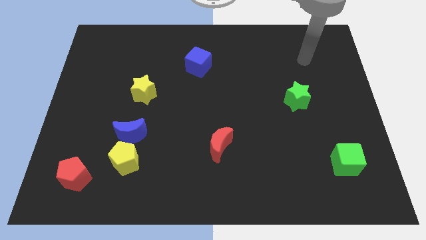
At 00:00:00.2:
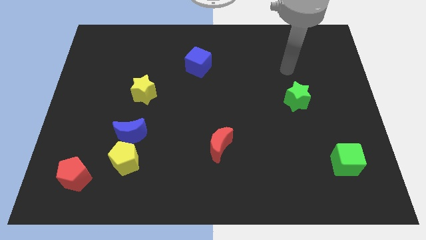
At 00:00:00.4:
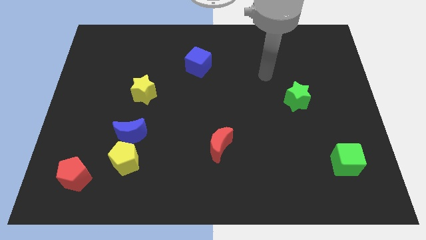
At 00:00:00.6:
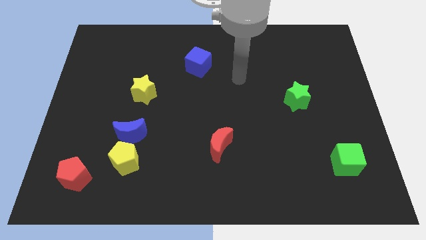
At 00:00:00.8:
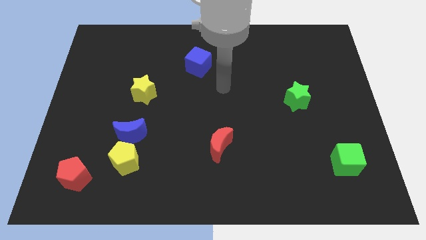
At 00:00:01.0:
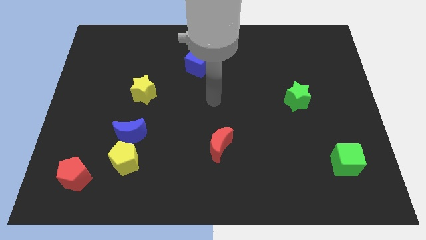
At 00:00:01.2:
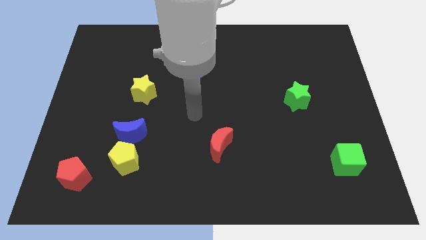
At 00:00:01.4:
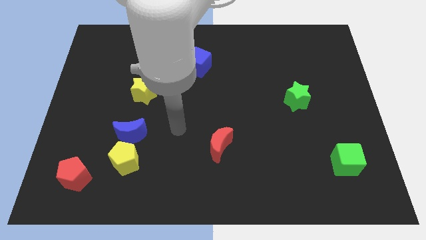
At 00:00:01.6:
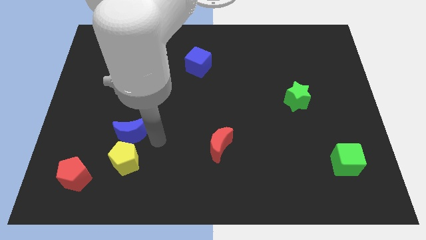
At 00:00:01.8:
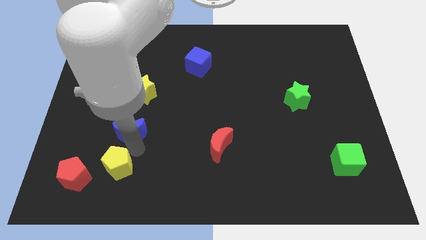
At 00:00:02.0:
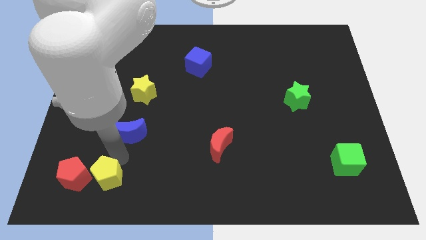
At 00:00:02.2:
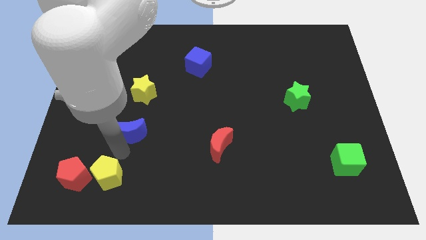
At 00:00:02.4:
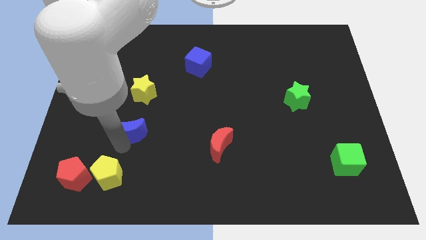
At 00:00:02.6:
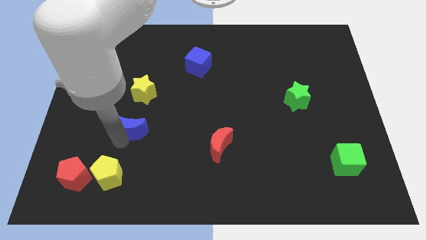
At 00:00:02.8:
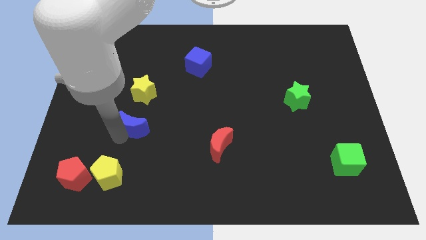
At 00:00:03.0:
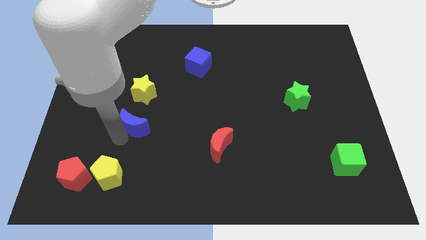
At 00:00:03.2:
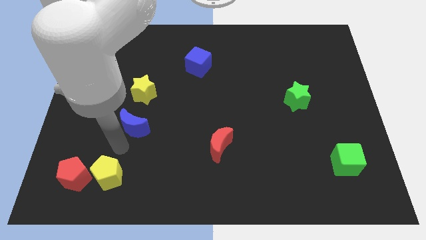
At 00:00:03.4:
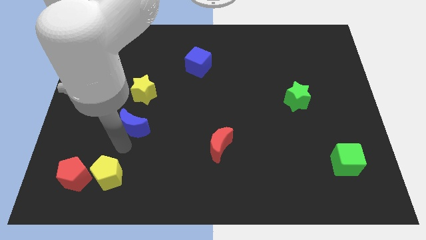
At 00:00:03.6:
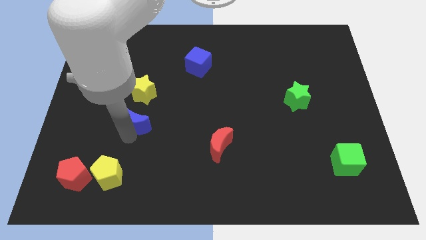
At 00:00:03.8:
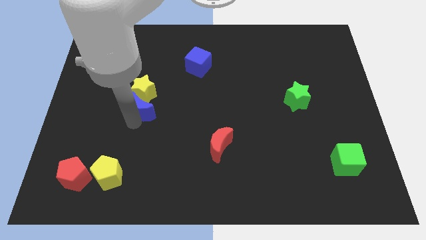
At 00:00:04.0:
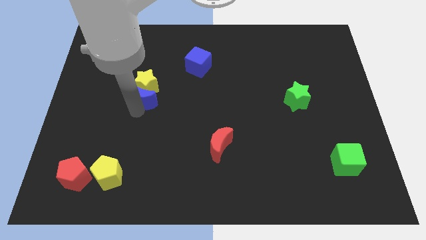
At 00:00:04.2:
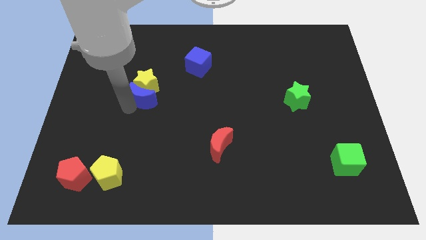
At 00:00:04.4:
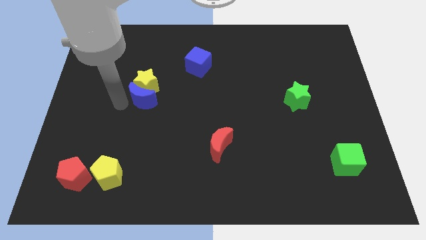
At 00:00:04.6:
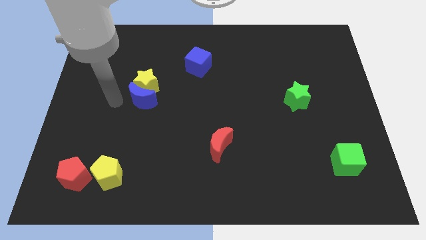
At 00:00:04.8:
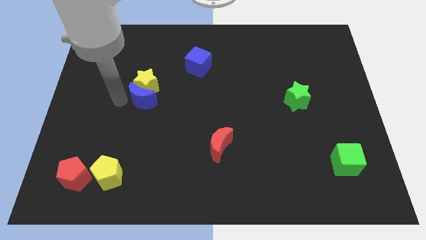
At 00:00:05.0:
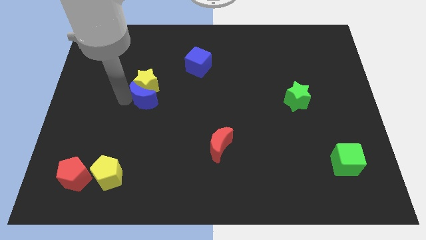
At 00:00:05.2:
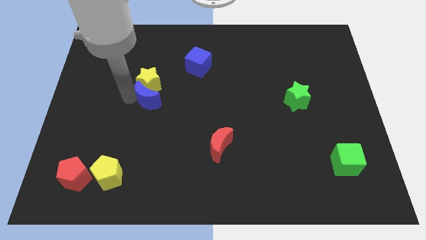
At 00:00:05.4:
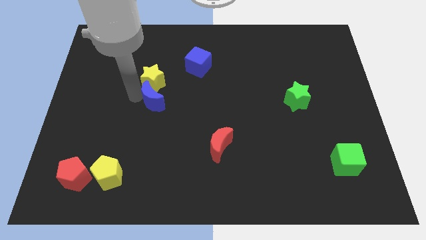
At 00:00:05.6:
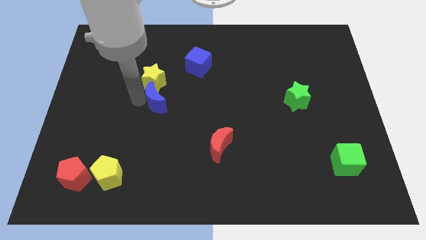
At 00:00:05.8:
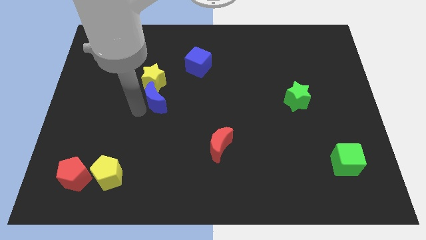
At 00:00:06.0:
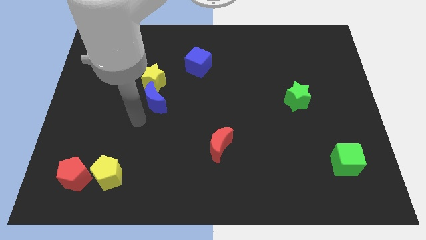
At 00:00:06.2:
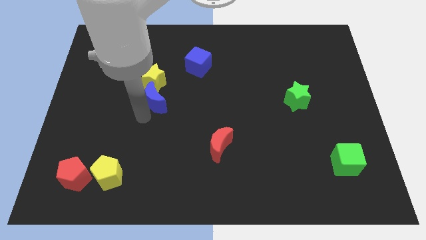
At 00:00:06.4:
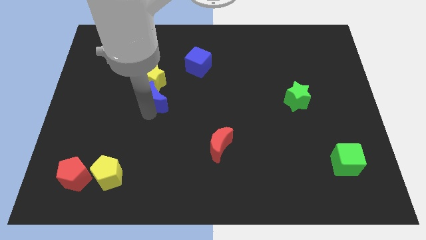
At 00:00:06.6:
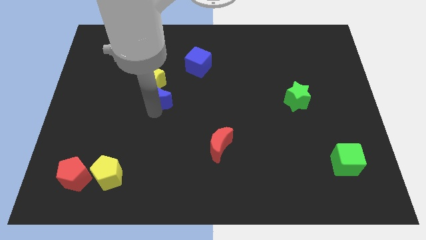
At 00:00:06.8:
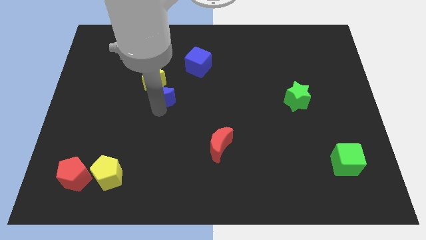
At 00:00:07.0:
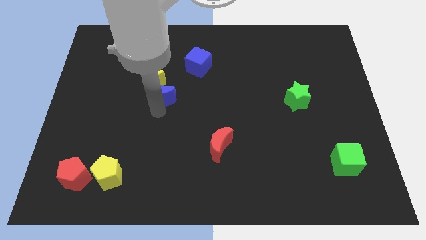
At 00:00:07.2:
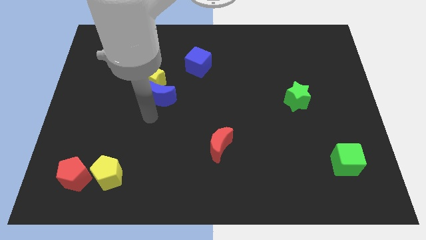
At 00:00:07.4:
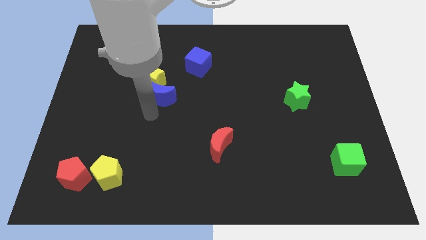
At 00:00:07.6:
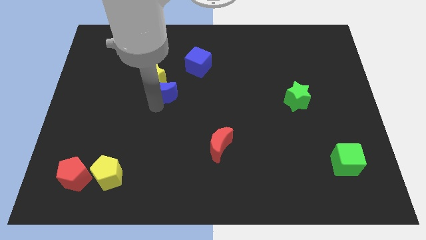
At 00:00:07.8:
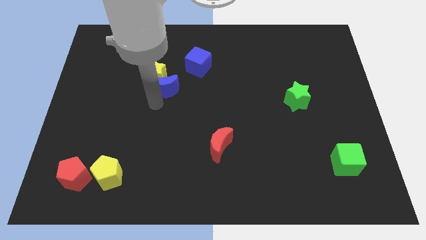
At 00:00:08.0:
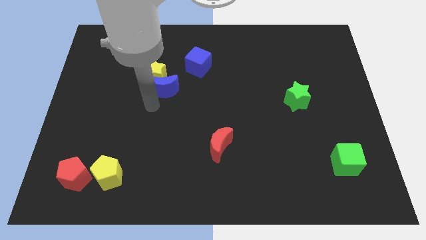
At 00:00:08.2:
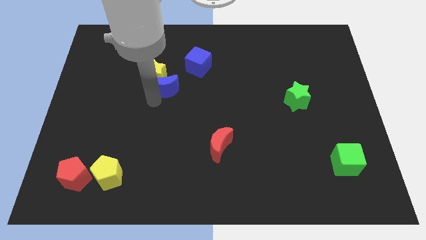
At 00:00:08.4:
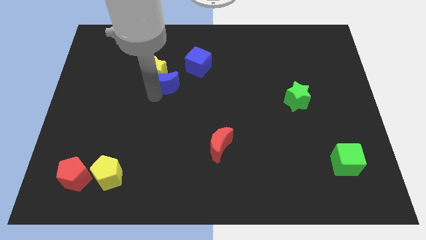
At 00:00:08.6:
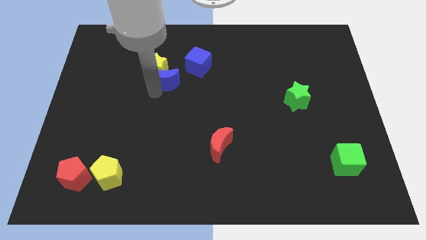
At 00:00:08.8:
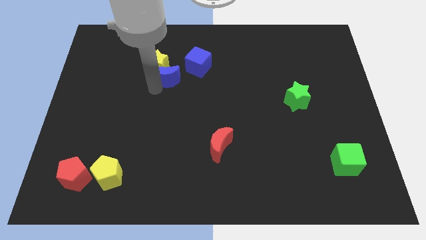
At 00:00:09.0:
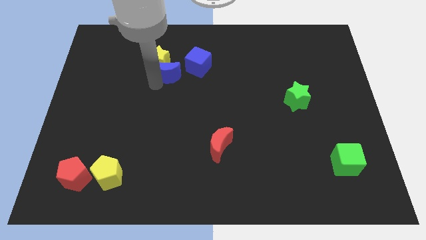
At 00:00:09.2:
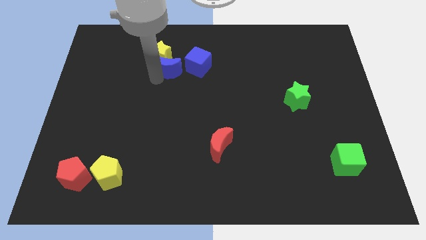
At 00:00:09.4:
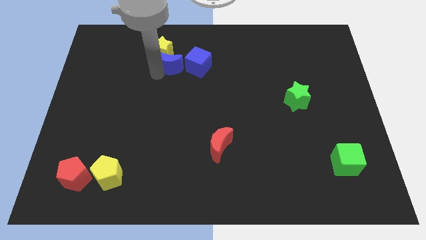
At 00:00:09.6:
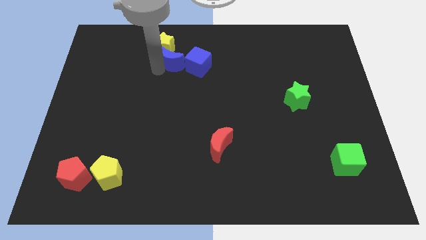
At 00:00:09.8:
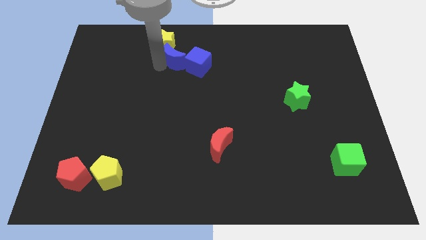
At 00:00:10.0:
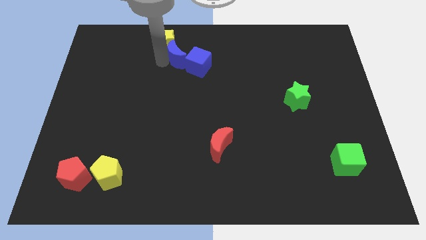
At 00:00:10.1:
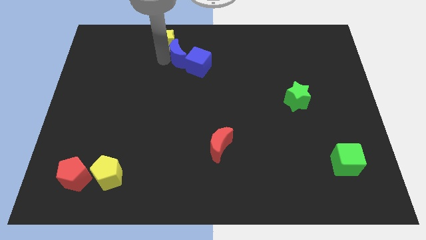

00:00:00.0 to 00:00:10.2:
push the blue moon close to the blue cube

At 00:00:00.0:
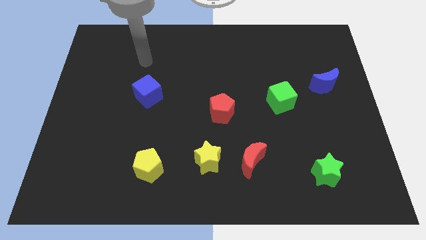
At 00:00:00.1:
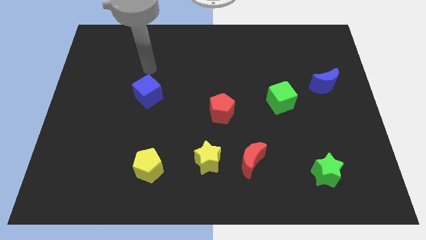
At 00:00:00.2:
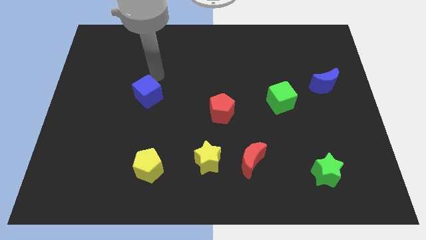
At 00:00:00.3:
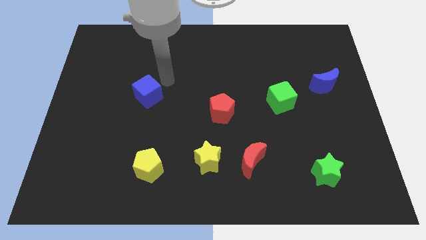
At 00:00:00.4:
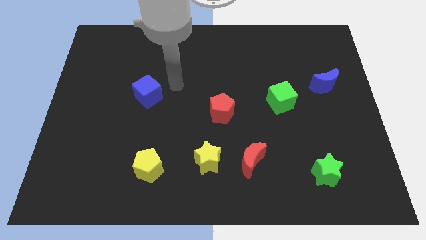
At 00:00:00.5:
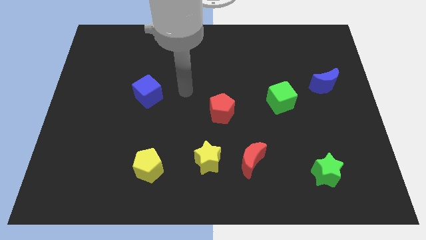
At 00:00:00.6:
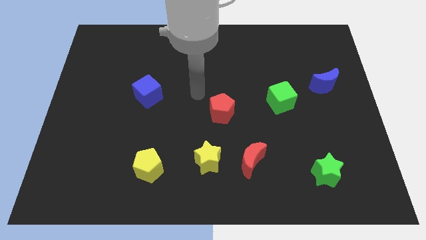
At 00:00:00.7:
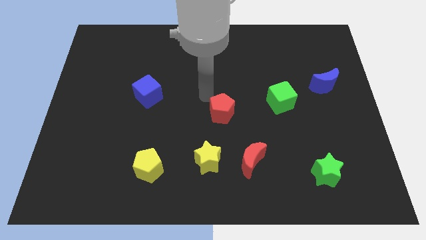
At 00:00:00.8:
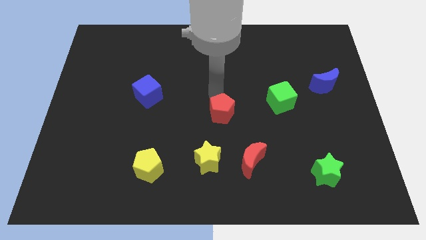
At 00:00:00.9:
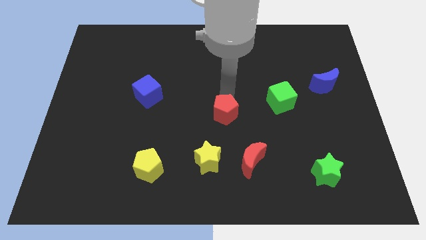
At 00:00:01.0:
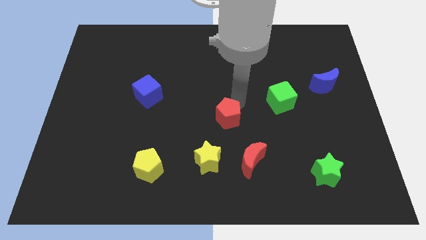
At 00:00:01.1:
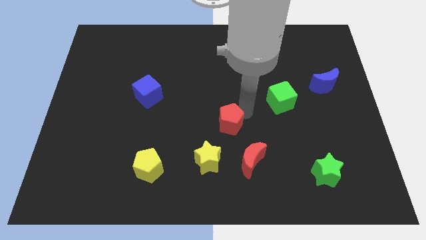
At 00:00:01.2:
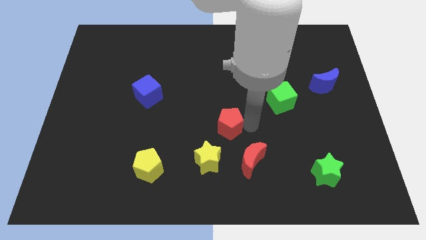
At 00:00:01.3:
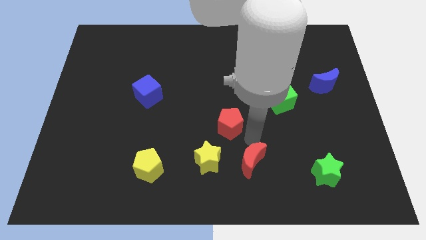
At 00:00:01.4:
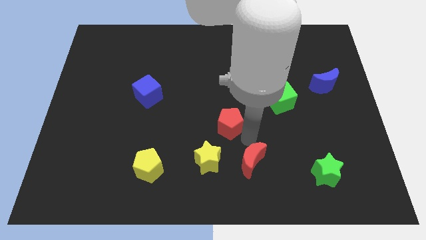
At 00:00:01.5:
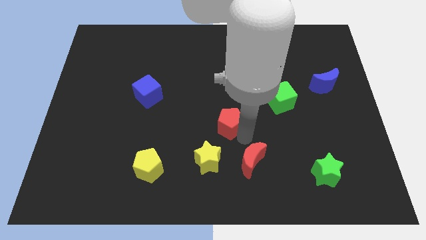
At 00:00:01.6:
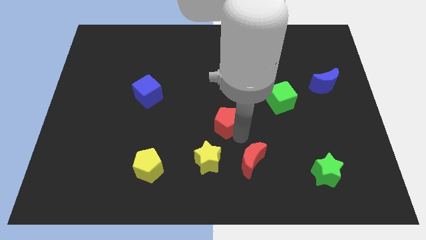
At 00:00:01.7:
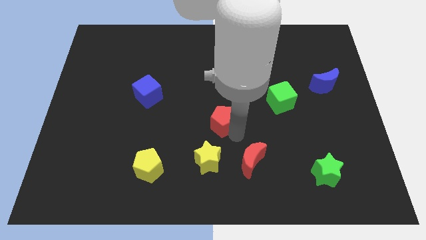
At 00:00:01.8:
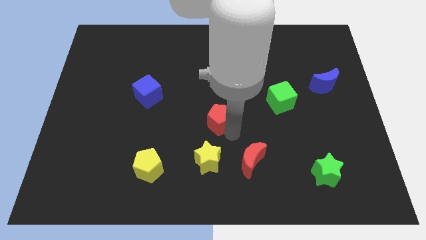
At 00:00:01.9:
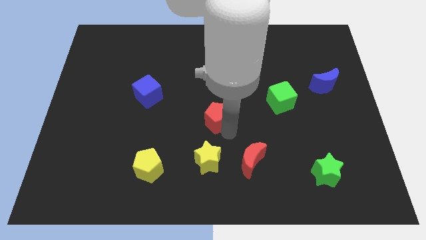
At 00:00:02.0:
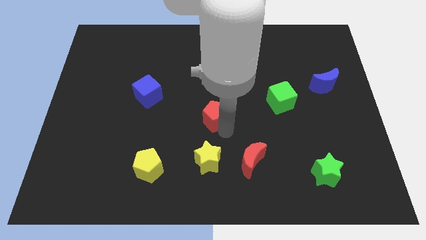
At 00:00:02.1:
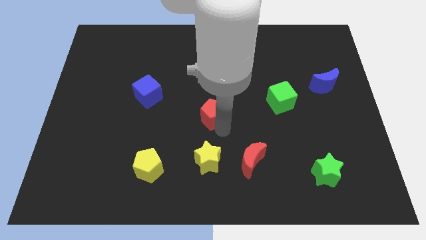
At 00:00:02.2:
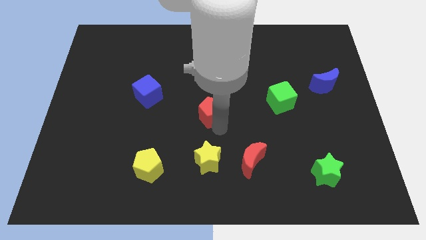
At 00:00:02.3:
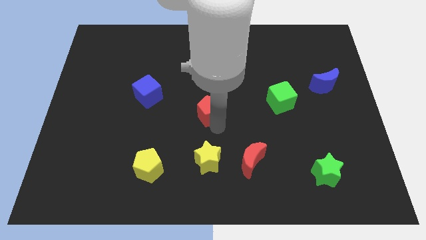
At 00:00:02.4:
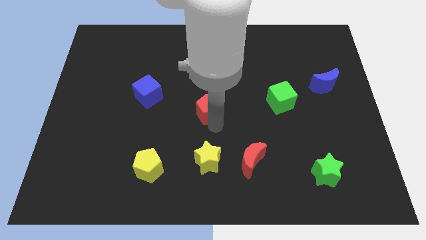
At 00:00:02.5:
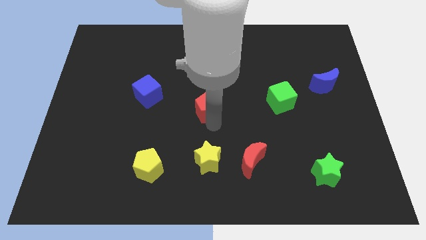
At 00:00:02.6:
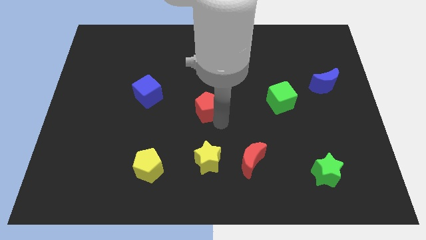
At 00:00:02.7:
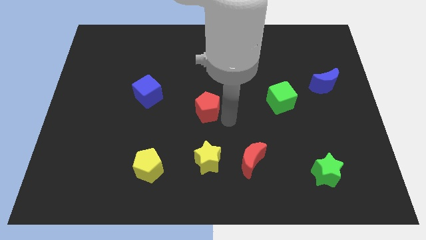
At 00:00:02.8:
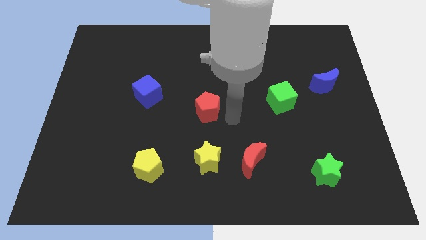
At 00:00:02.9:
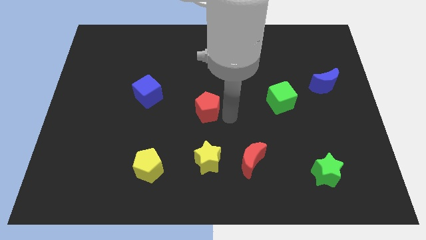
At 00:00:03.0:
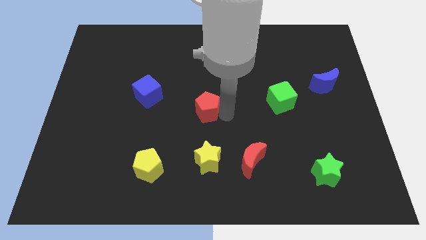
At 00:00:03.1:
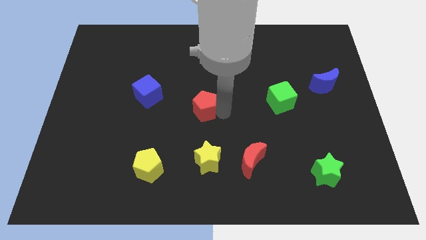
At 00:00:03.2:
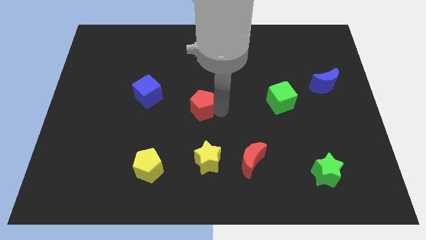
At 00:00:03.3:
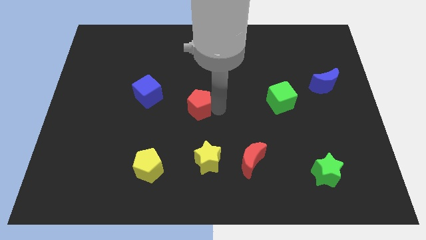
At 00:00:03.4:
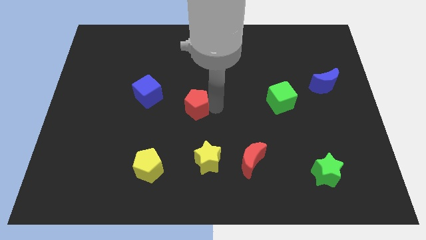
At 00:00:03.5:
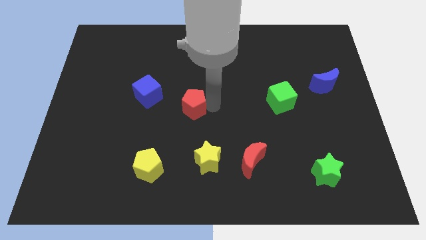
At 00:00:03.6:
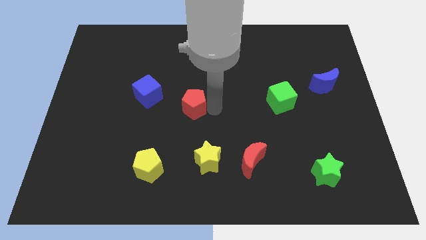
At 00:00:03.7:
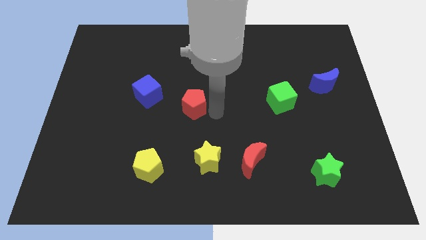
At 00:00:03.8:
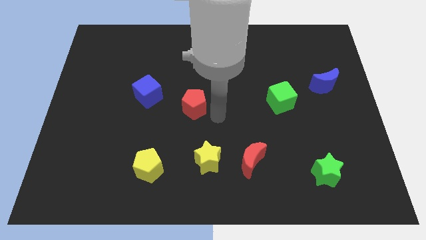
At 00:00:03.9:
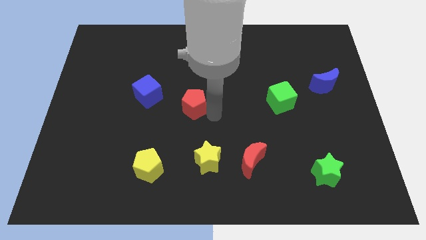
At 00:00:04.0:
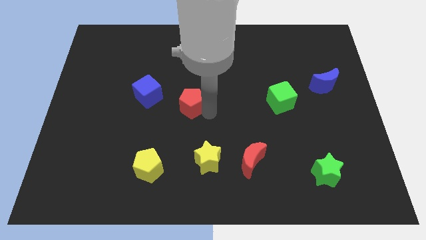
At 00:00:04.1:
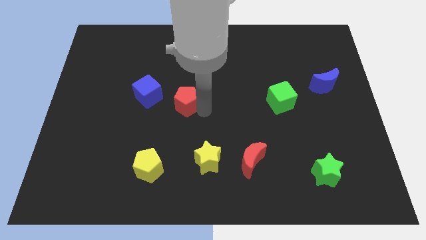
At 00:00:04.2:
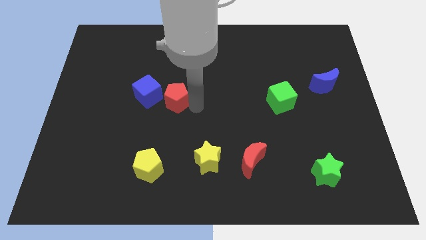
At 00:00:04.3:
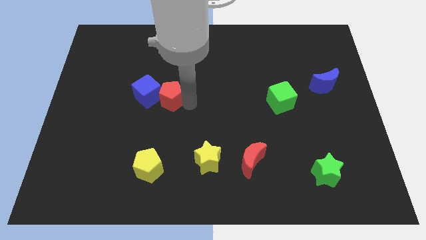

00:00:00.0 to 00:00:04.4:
put the red pentagon to the blue cube
